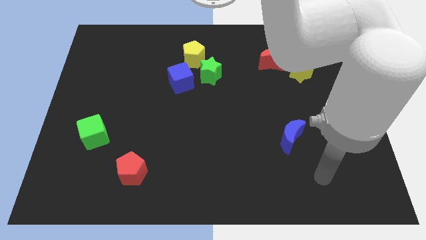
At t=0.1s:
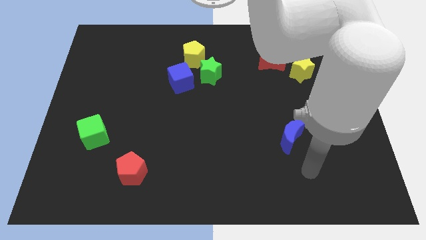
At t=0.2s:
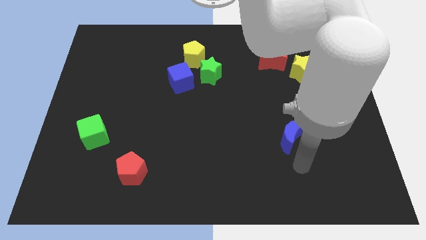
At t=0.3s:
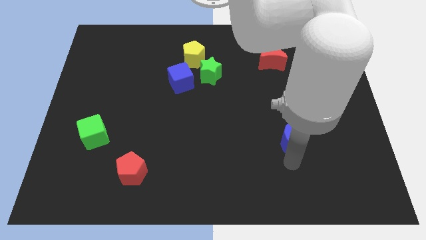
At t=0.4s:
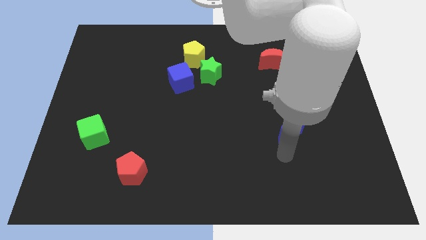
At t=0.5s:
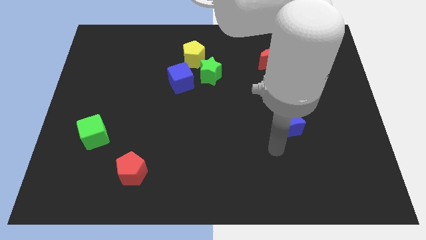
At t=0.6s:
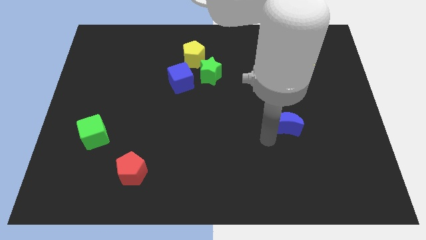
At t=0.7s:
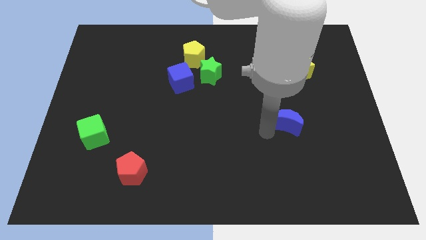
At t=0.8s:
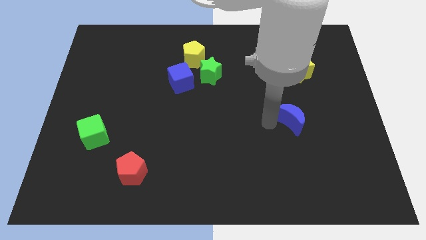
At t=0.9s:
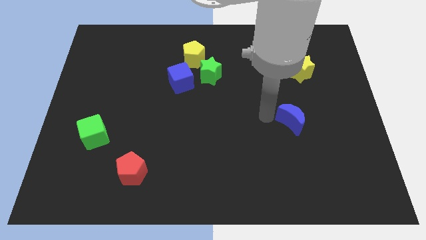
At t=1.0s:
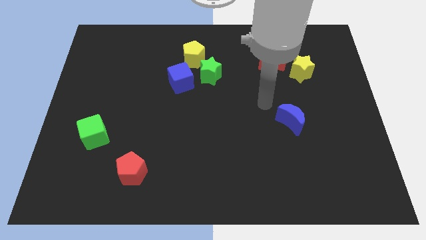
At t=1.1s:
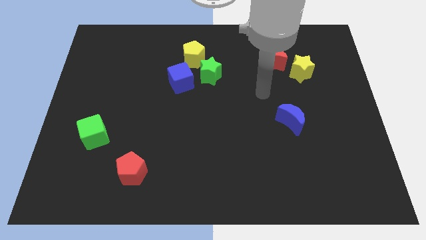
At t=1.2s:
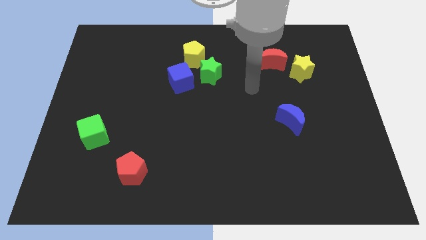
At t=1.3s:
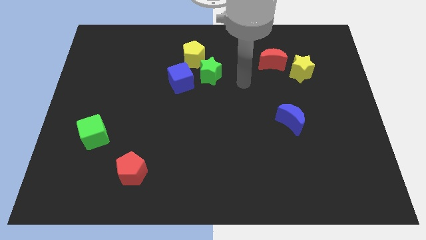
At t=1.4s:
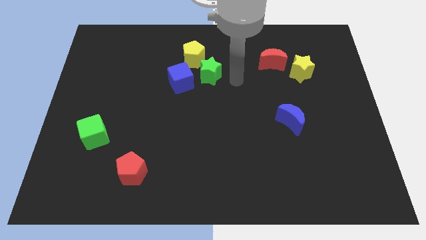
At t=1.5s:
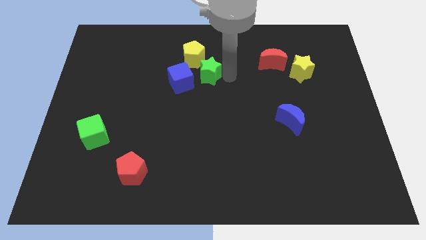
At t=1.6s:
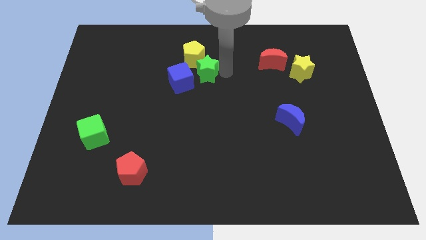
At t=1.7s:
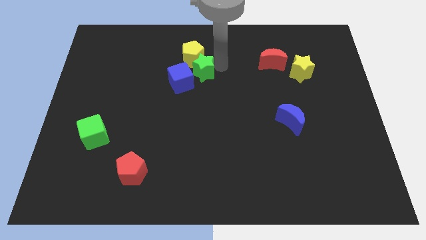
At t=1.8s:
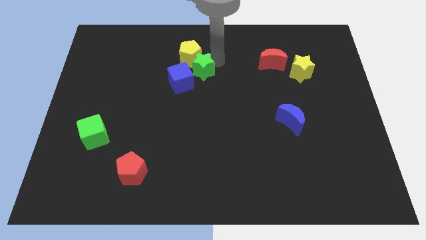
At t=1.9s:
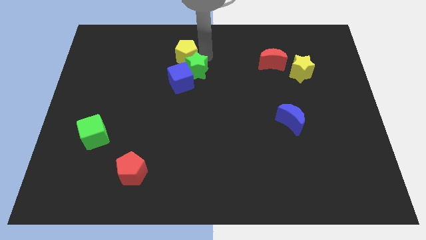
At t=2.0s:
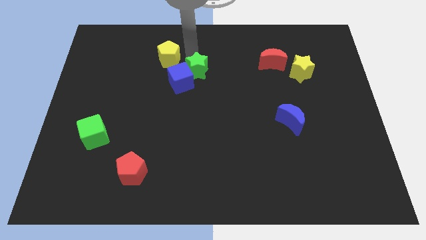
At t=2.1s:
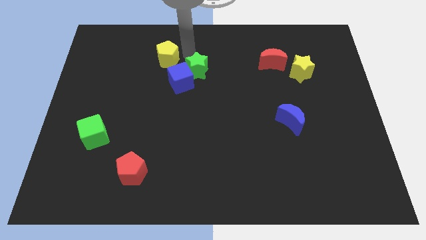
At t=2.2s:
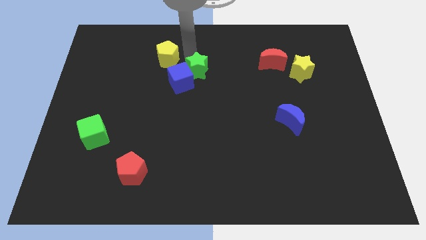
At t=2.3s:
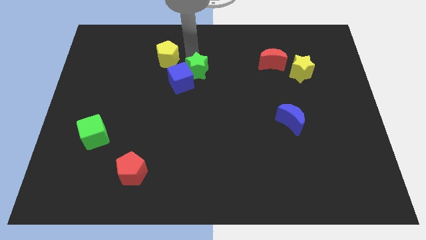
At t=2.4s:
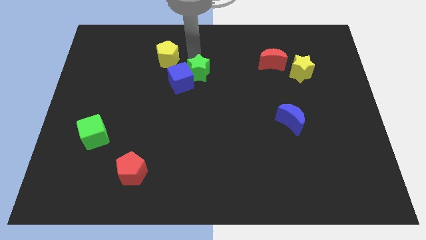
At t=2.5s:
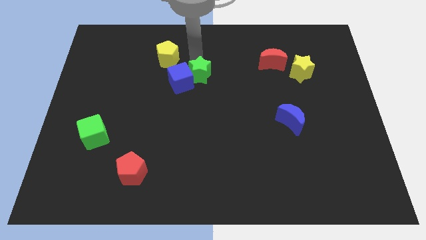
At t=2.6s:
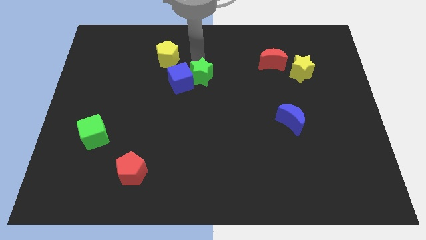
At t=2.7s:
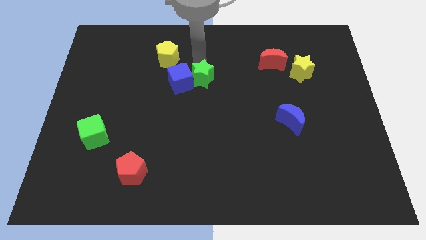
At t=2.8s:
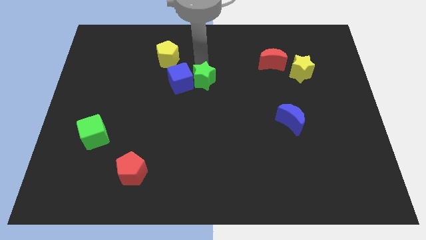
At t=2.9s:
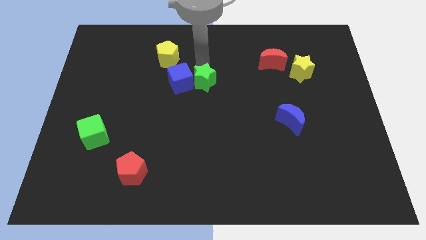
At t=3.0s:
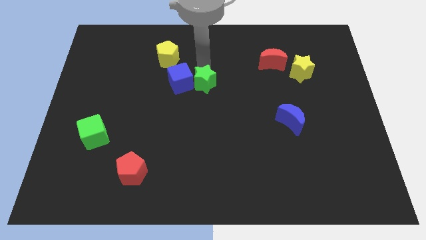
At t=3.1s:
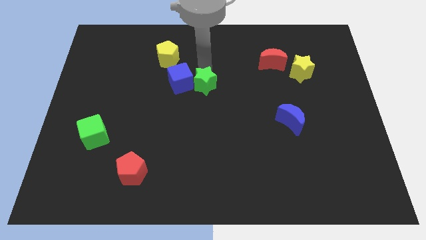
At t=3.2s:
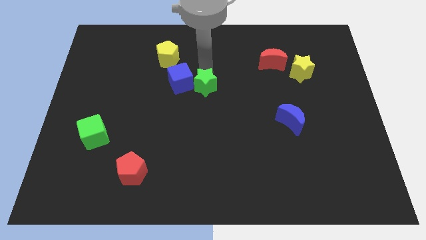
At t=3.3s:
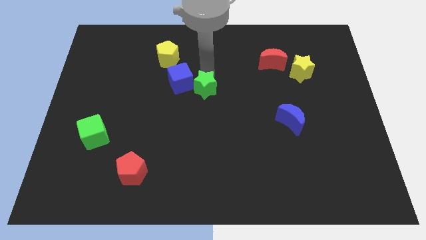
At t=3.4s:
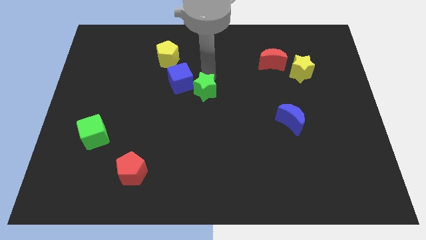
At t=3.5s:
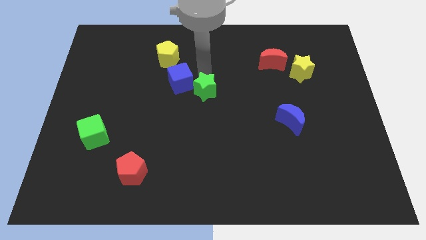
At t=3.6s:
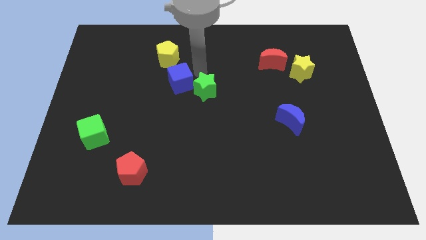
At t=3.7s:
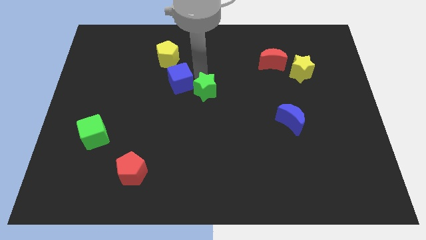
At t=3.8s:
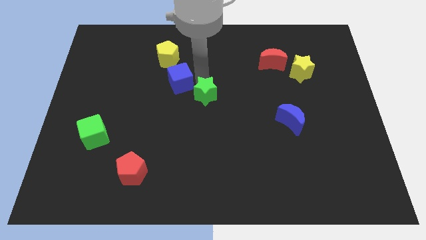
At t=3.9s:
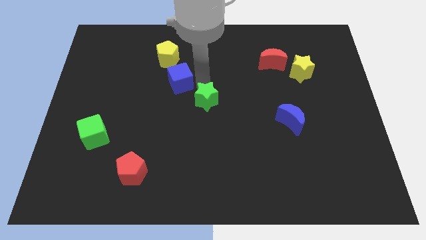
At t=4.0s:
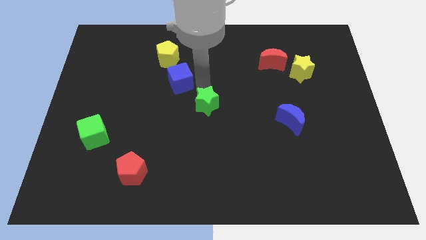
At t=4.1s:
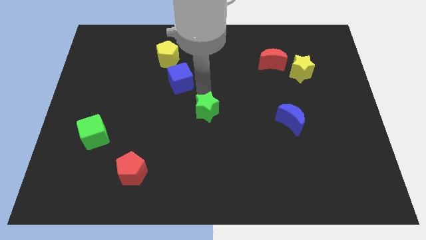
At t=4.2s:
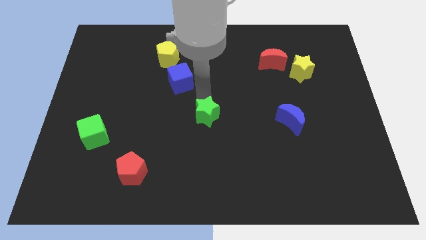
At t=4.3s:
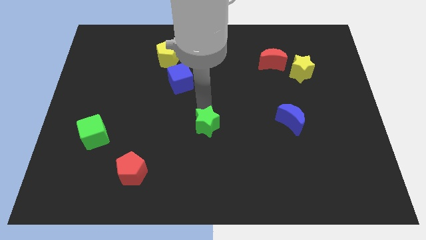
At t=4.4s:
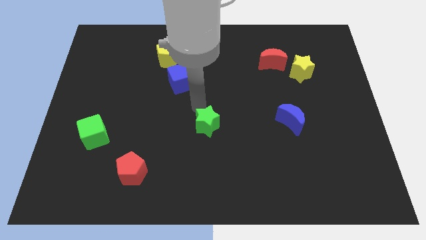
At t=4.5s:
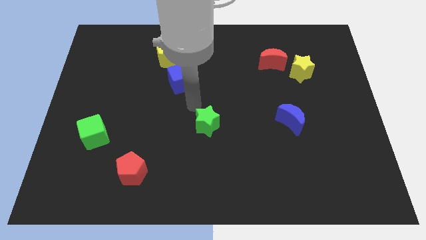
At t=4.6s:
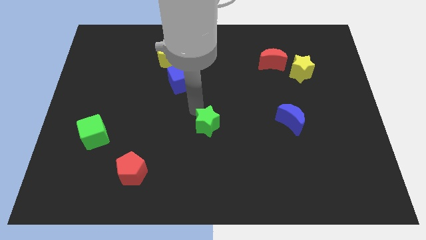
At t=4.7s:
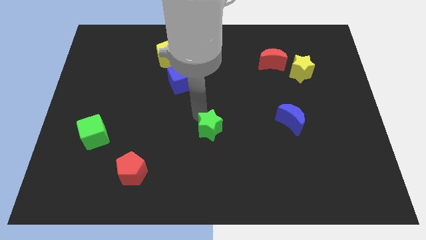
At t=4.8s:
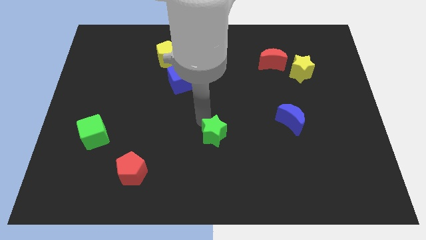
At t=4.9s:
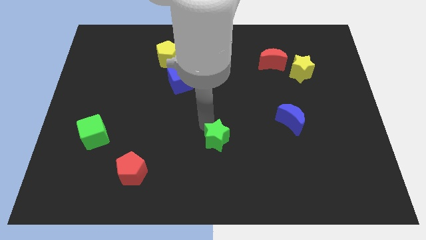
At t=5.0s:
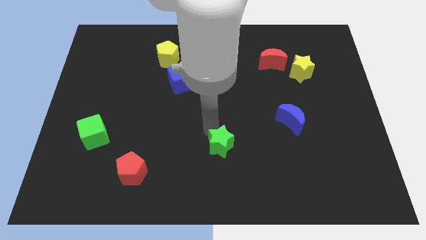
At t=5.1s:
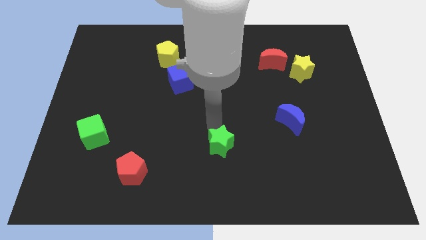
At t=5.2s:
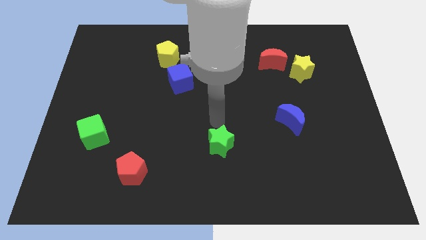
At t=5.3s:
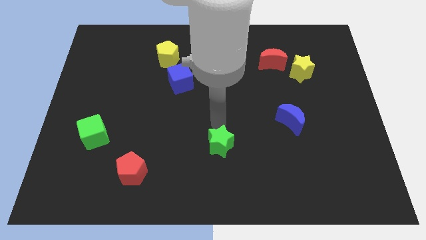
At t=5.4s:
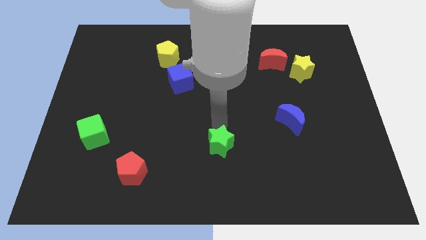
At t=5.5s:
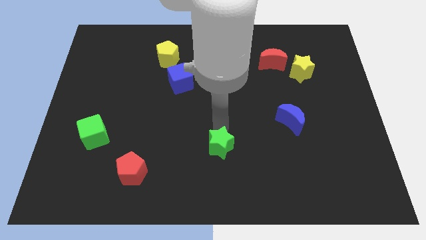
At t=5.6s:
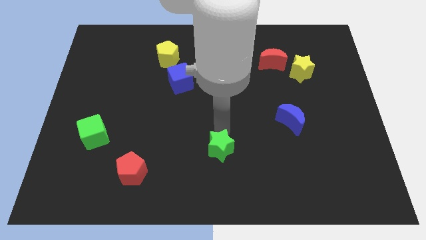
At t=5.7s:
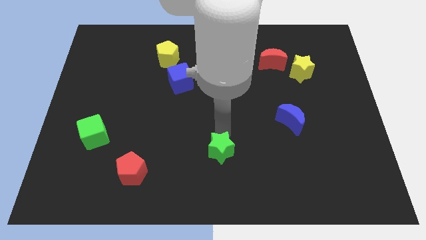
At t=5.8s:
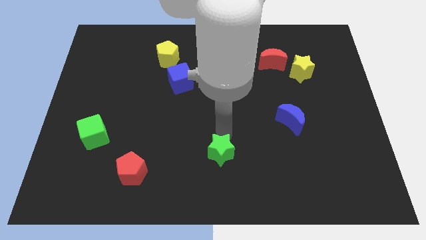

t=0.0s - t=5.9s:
push the green star to the bottom side
